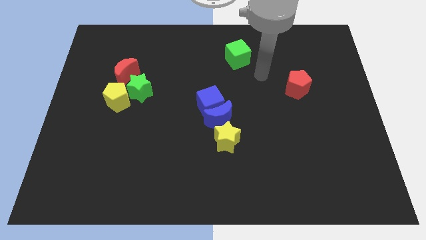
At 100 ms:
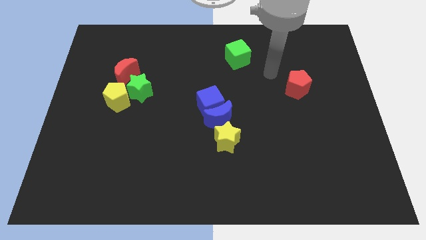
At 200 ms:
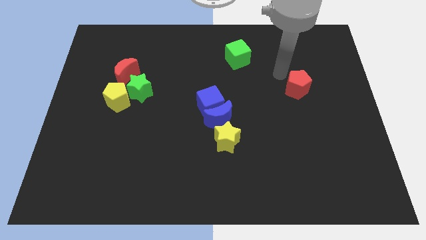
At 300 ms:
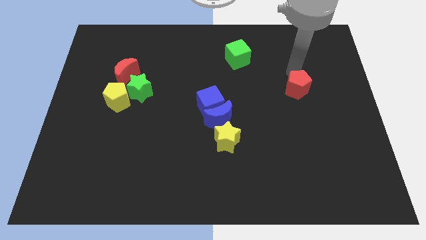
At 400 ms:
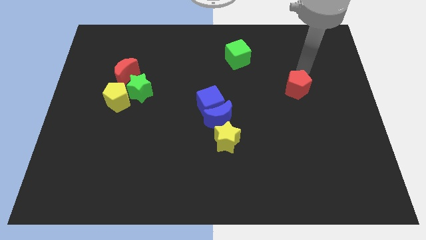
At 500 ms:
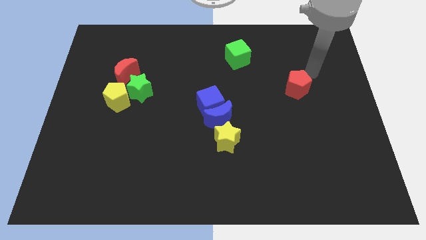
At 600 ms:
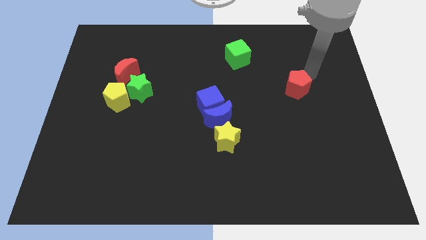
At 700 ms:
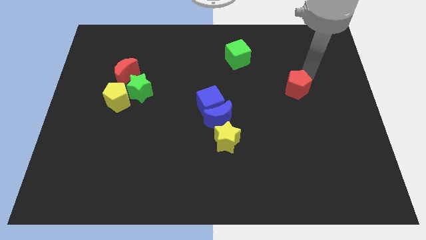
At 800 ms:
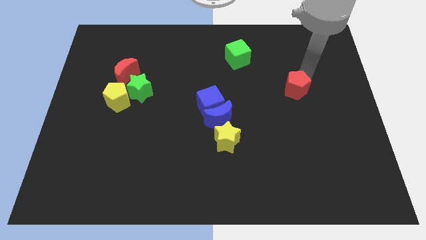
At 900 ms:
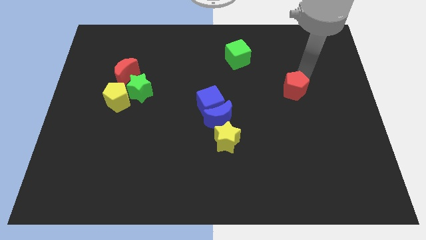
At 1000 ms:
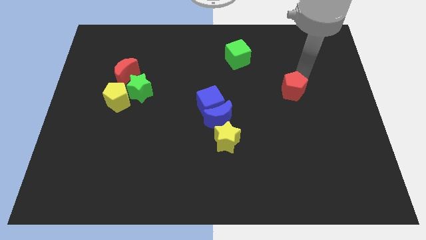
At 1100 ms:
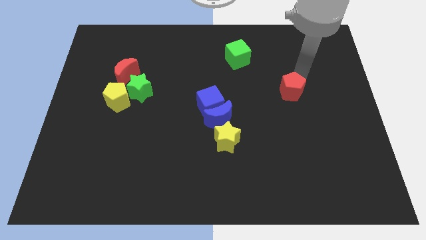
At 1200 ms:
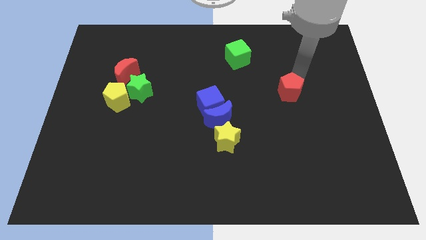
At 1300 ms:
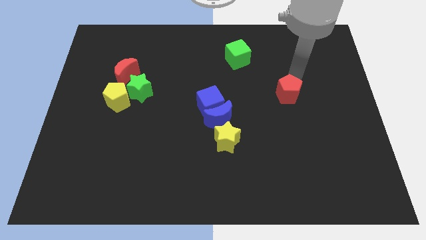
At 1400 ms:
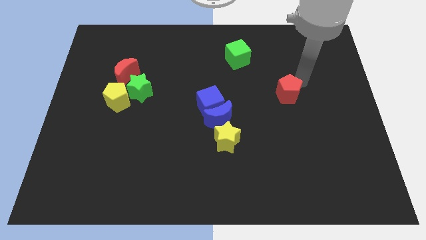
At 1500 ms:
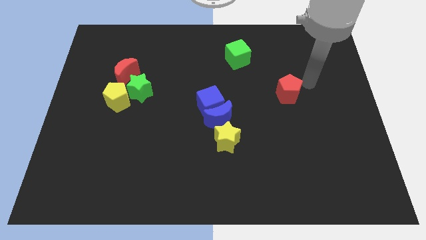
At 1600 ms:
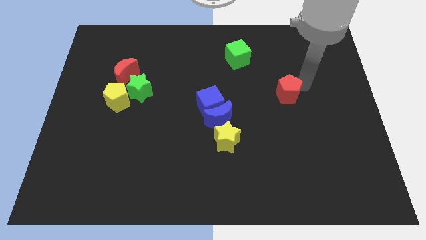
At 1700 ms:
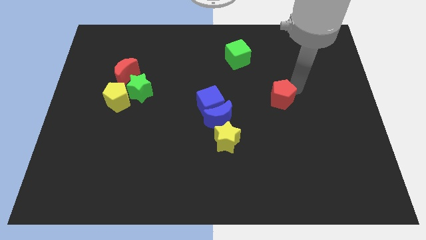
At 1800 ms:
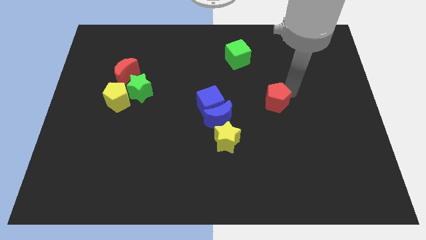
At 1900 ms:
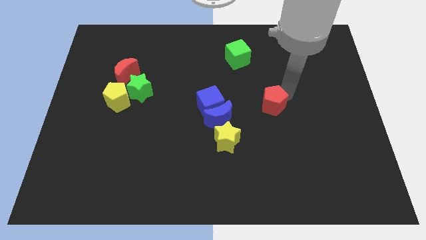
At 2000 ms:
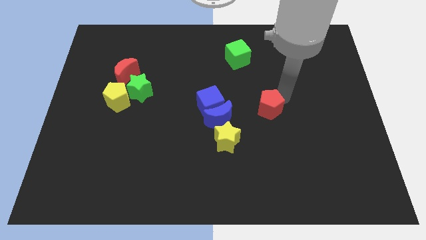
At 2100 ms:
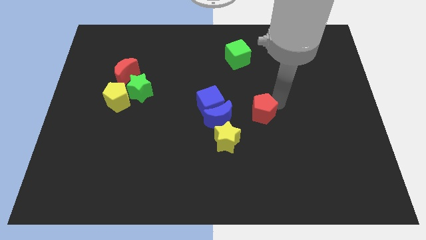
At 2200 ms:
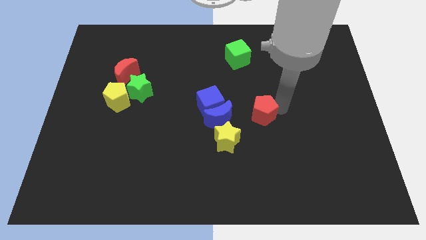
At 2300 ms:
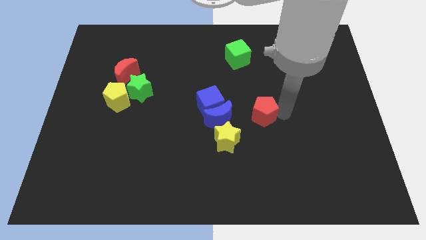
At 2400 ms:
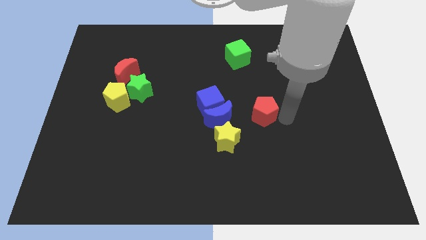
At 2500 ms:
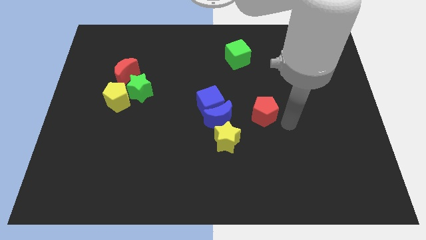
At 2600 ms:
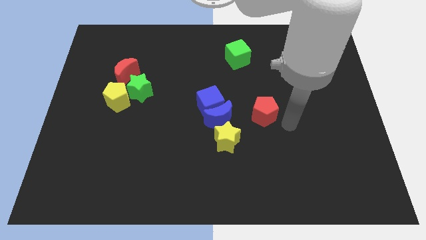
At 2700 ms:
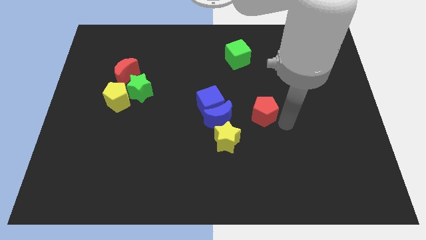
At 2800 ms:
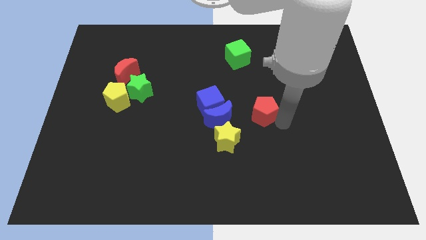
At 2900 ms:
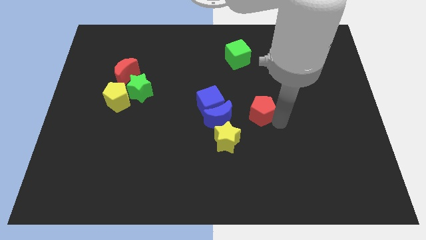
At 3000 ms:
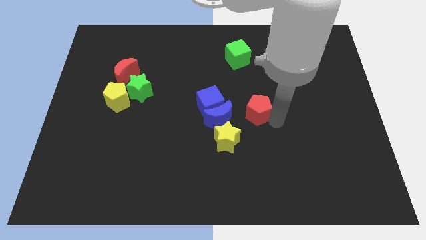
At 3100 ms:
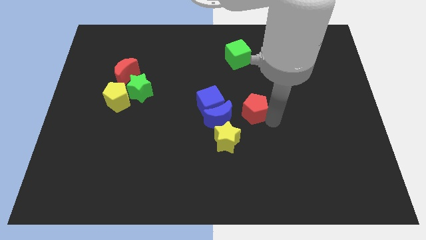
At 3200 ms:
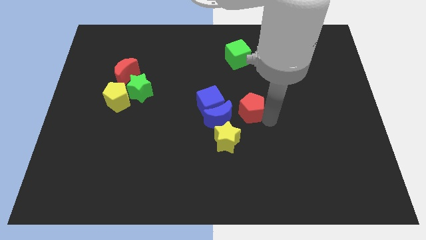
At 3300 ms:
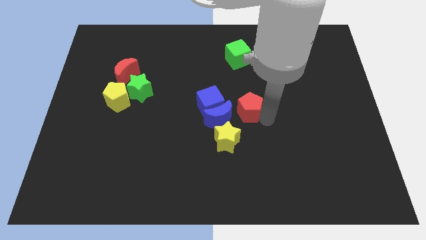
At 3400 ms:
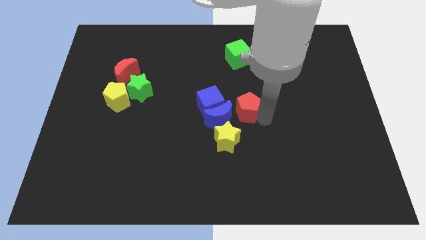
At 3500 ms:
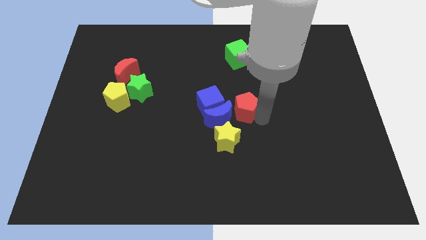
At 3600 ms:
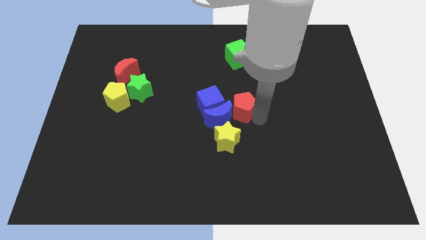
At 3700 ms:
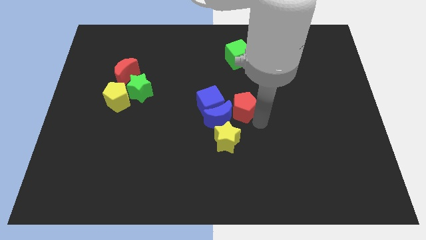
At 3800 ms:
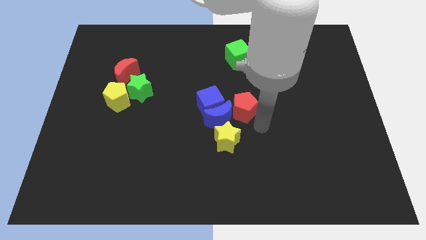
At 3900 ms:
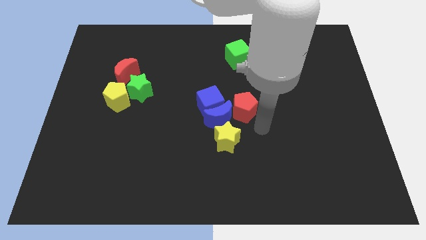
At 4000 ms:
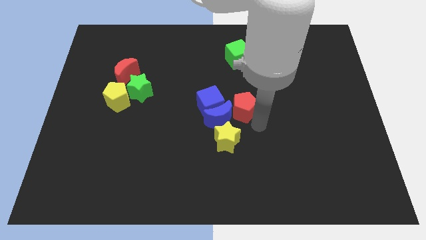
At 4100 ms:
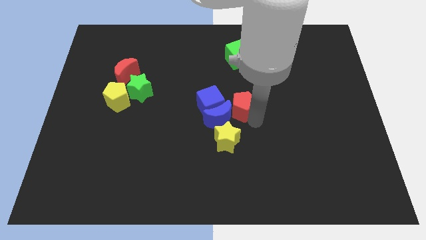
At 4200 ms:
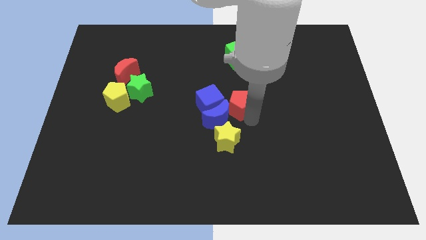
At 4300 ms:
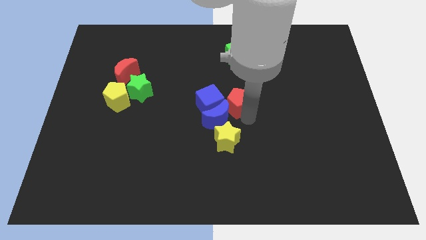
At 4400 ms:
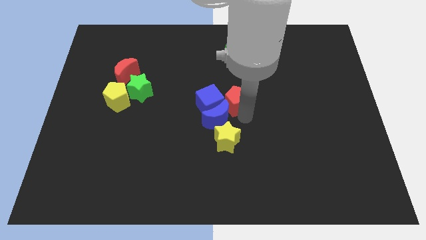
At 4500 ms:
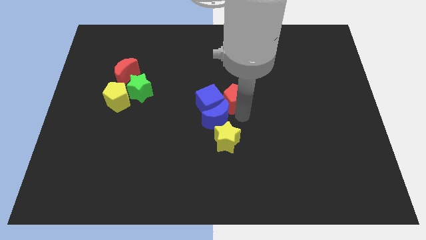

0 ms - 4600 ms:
slide the red pentagon next to the blue cube

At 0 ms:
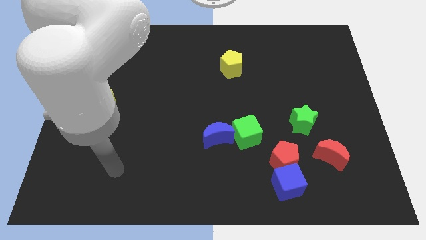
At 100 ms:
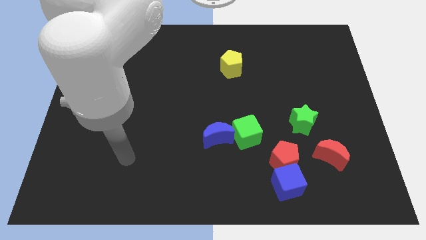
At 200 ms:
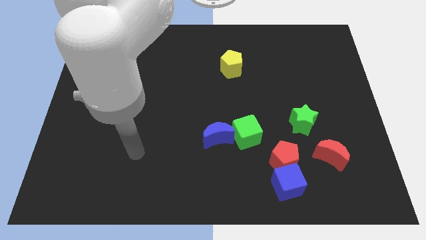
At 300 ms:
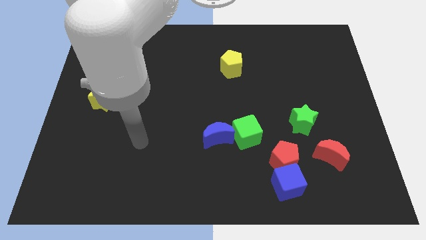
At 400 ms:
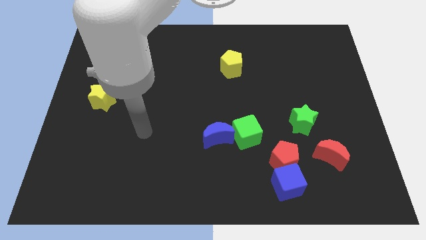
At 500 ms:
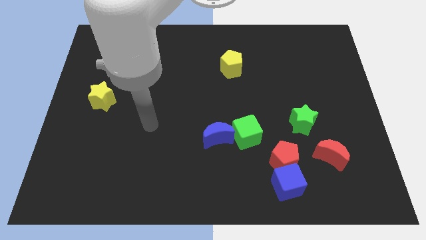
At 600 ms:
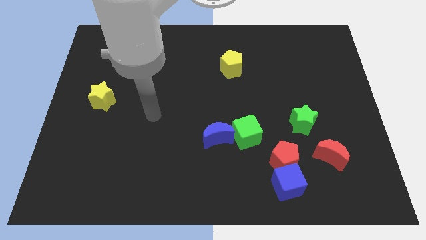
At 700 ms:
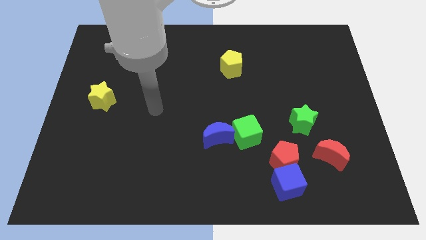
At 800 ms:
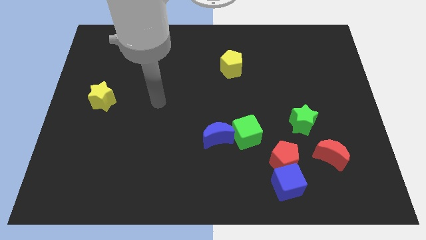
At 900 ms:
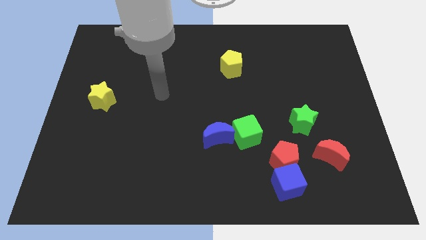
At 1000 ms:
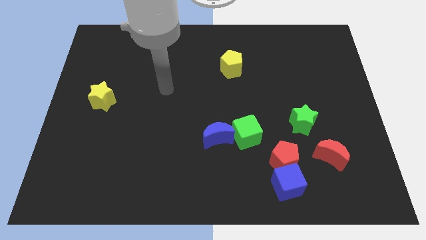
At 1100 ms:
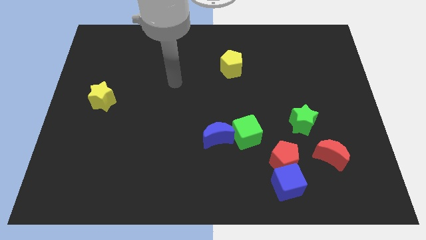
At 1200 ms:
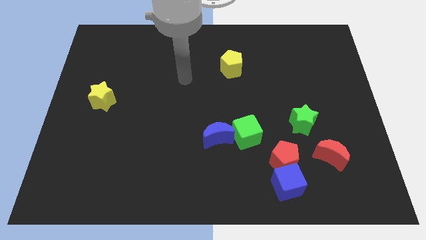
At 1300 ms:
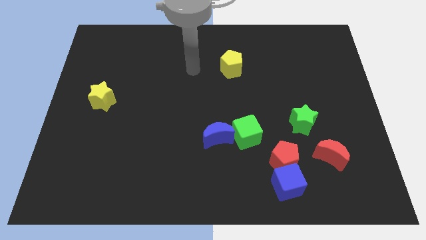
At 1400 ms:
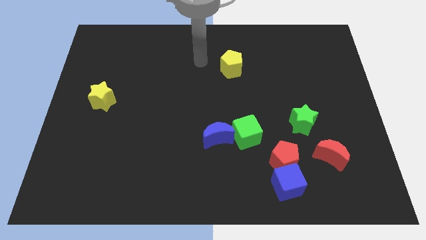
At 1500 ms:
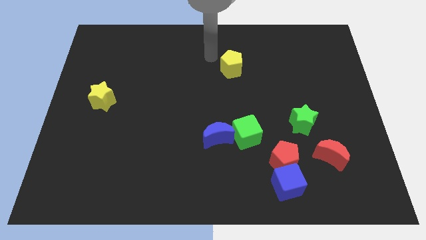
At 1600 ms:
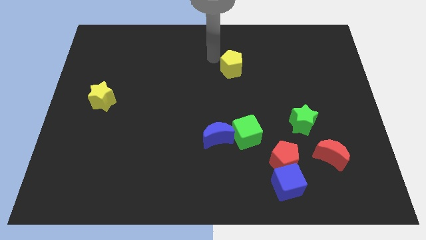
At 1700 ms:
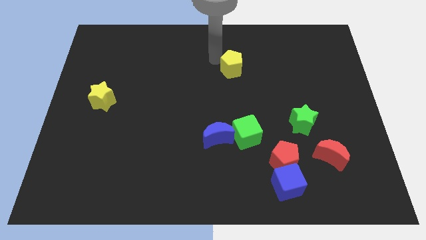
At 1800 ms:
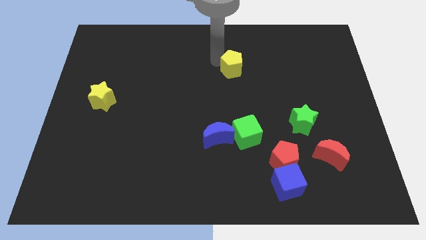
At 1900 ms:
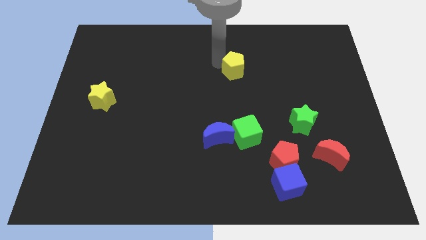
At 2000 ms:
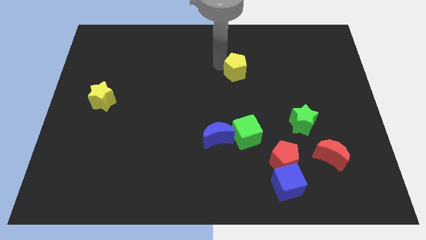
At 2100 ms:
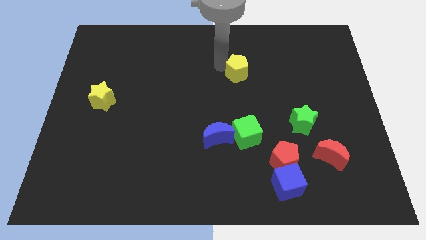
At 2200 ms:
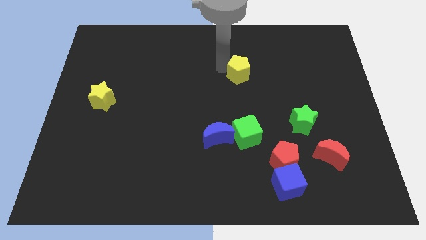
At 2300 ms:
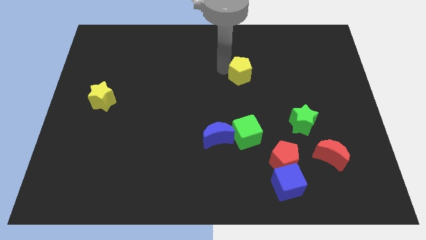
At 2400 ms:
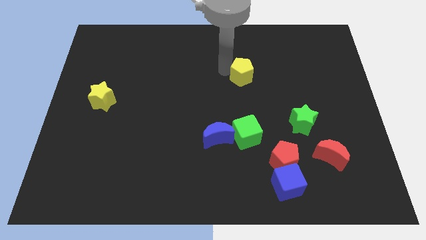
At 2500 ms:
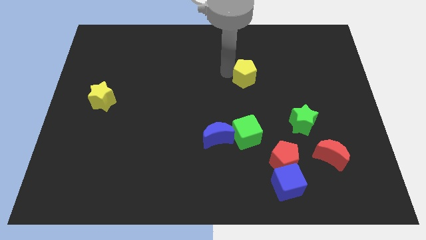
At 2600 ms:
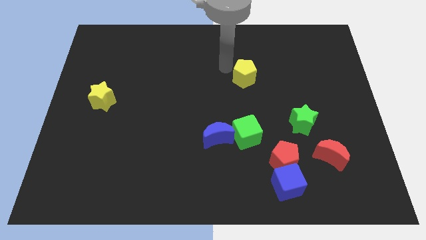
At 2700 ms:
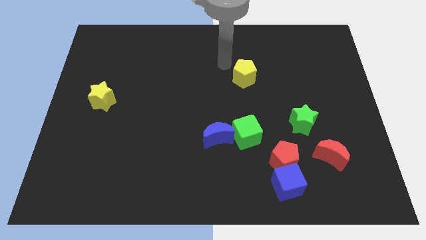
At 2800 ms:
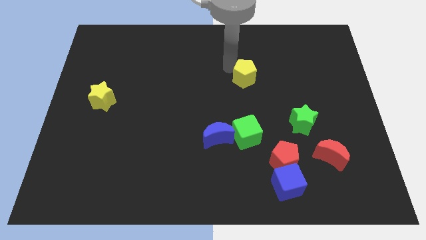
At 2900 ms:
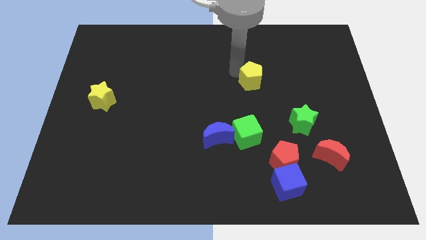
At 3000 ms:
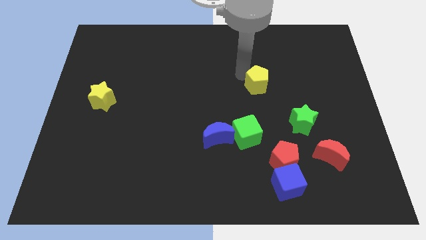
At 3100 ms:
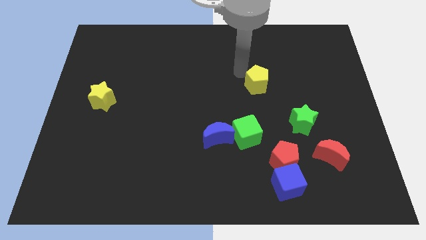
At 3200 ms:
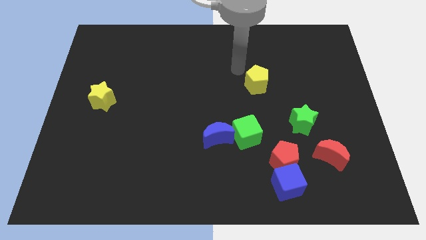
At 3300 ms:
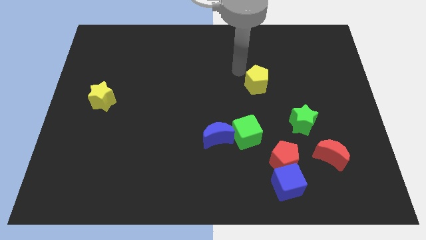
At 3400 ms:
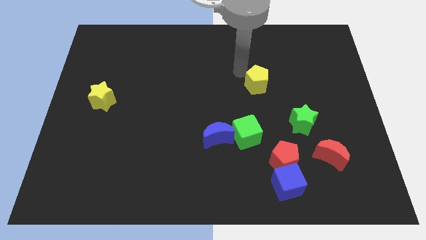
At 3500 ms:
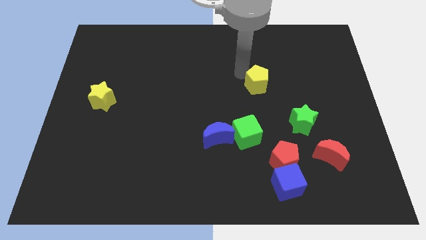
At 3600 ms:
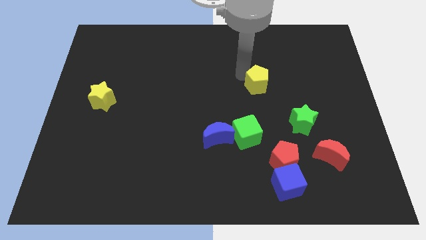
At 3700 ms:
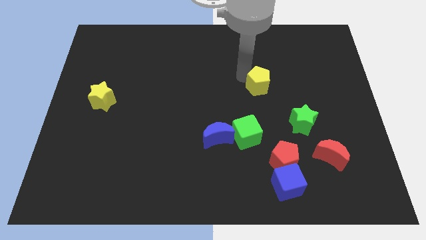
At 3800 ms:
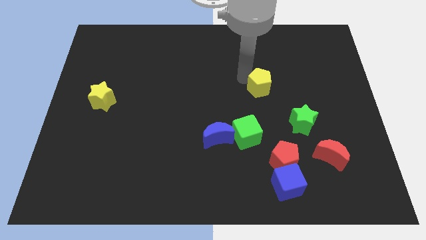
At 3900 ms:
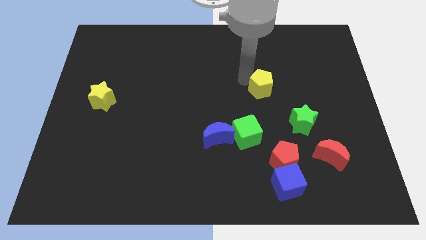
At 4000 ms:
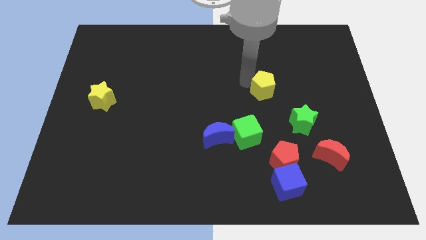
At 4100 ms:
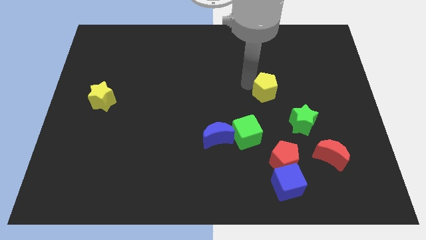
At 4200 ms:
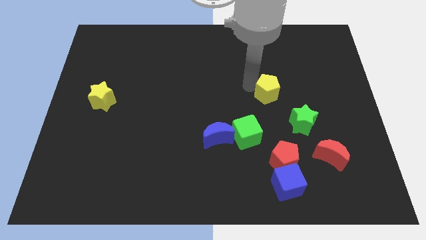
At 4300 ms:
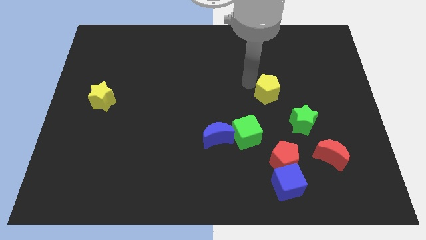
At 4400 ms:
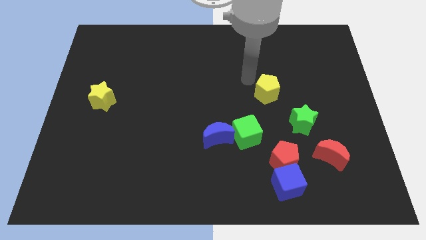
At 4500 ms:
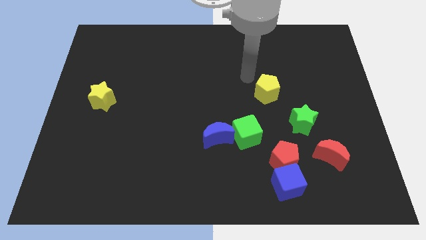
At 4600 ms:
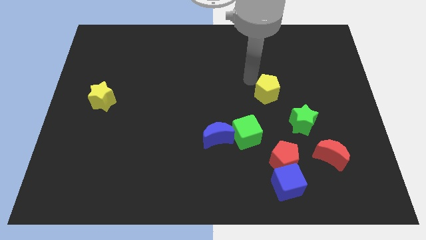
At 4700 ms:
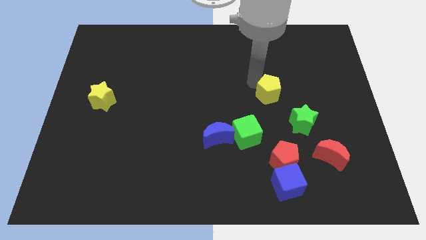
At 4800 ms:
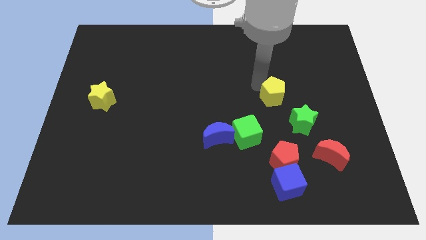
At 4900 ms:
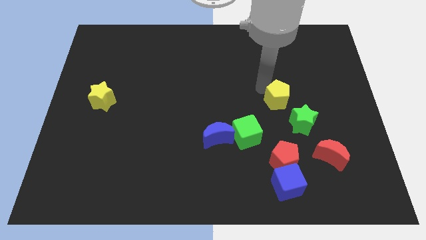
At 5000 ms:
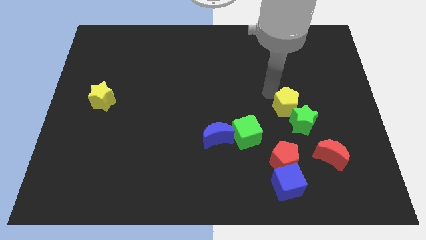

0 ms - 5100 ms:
put the yellow pentagon next to the green star
